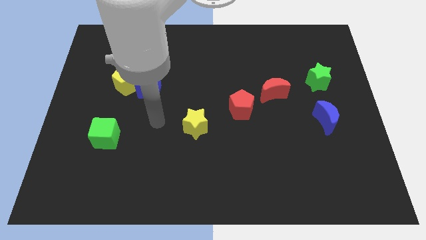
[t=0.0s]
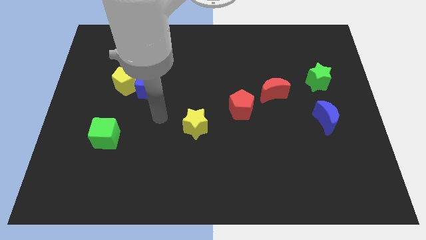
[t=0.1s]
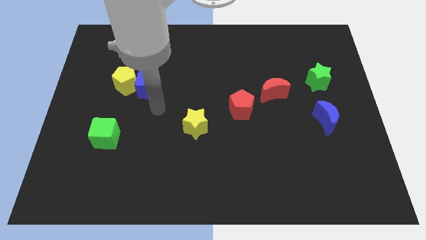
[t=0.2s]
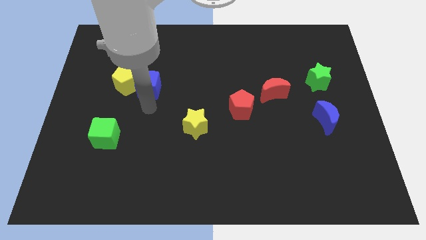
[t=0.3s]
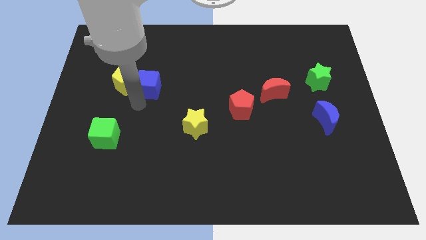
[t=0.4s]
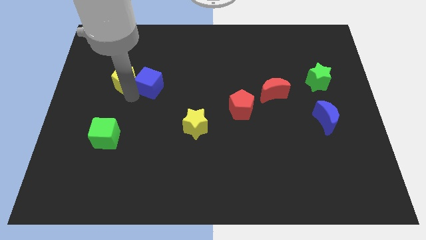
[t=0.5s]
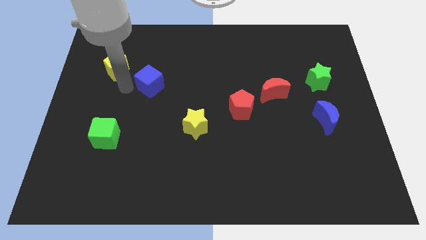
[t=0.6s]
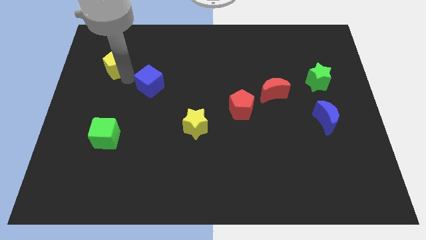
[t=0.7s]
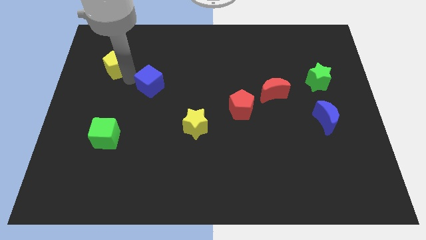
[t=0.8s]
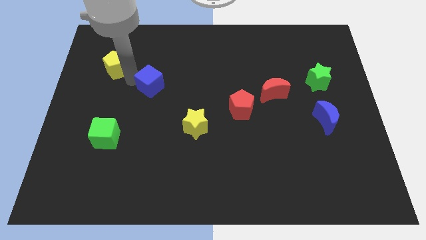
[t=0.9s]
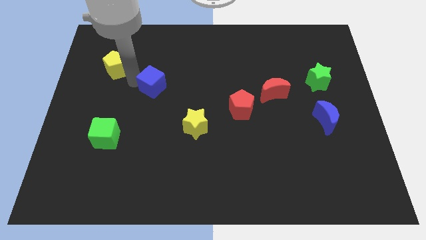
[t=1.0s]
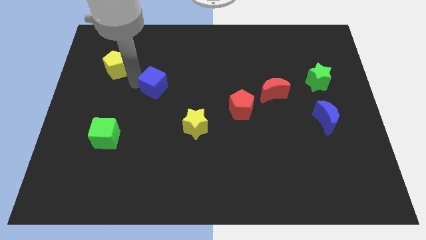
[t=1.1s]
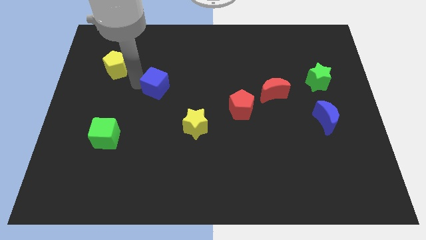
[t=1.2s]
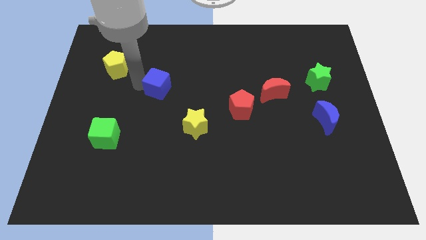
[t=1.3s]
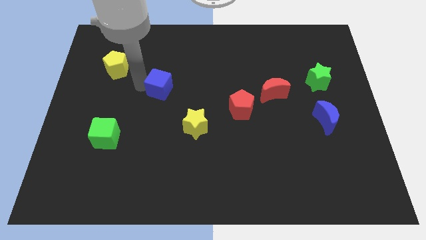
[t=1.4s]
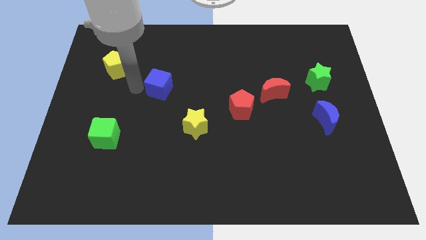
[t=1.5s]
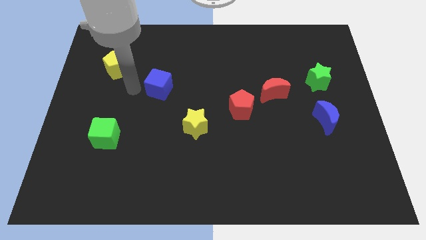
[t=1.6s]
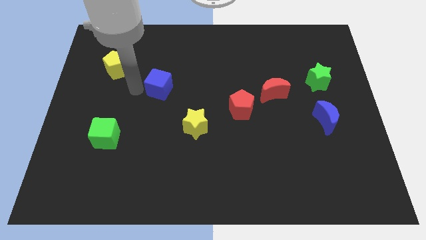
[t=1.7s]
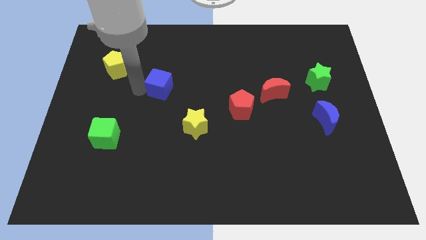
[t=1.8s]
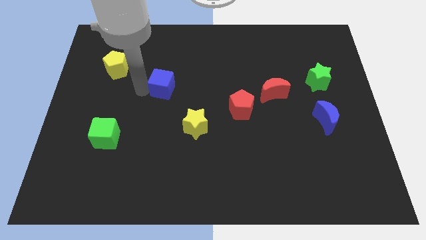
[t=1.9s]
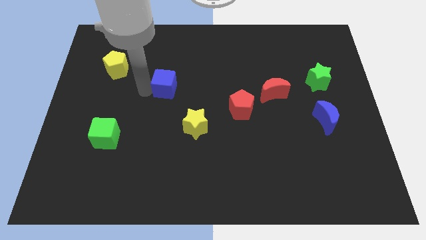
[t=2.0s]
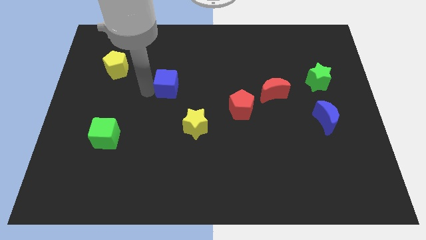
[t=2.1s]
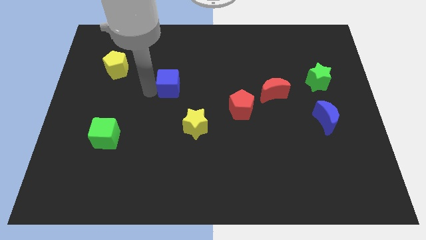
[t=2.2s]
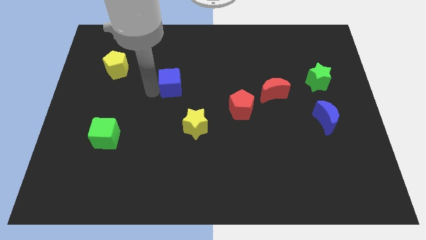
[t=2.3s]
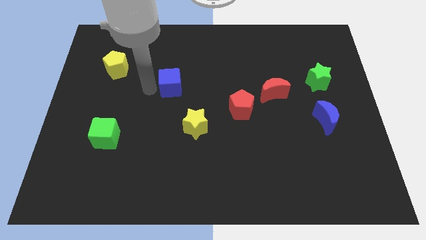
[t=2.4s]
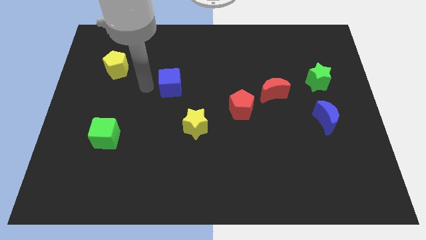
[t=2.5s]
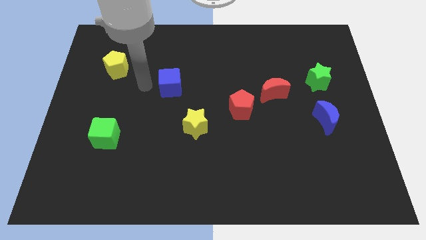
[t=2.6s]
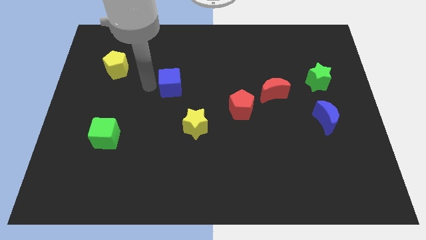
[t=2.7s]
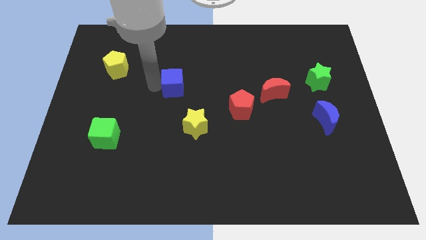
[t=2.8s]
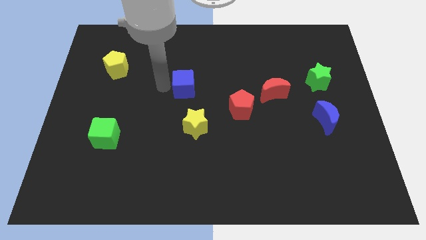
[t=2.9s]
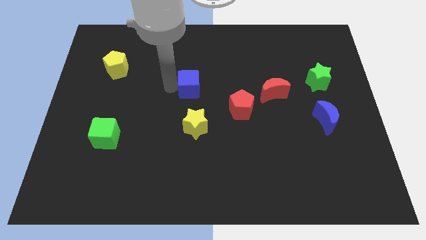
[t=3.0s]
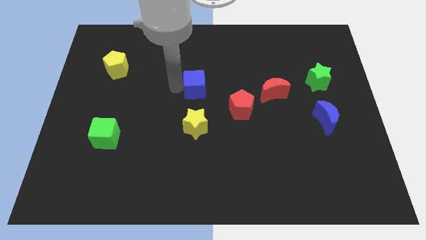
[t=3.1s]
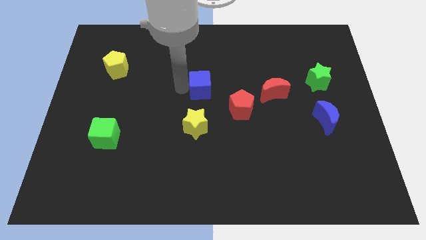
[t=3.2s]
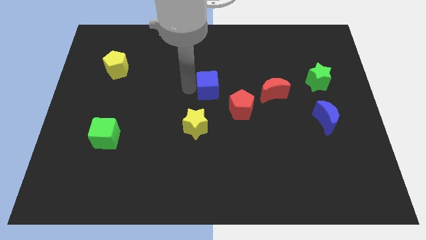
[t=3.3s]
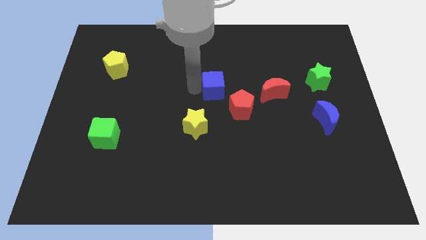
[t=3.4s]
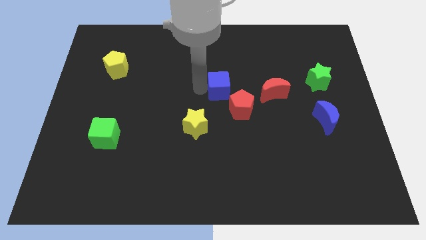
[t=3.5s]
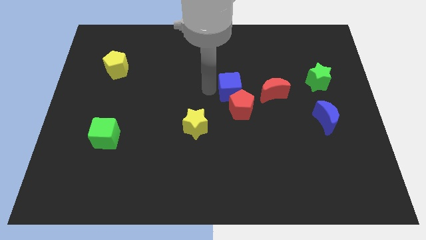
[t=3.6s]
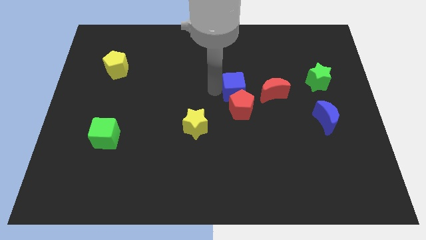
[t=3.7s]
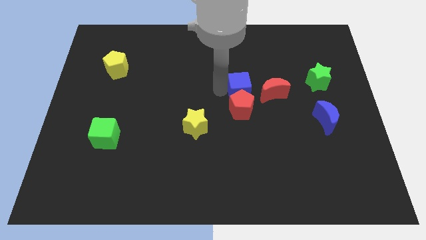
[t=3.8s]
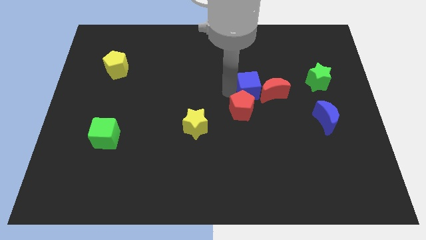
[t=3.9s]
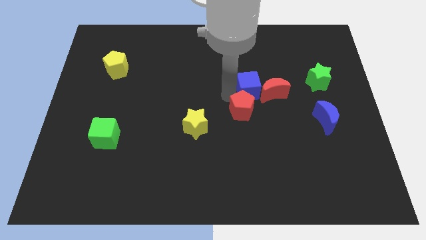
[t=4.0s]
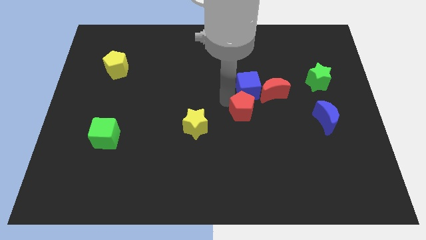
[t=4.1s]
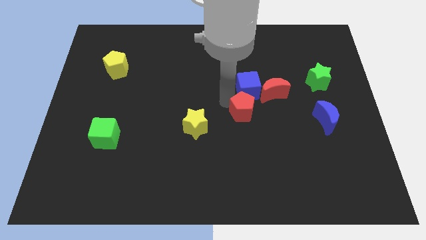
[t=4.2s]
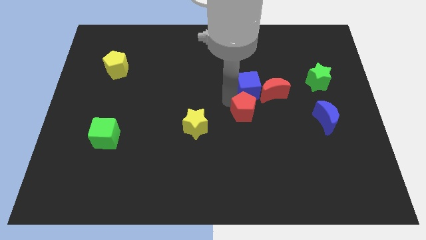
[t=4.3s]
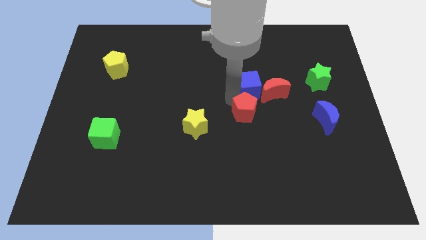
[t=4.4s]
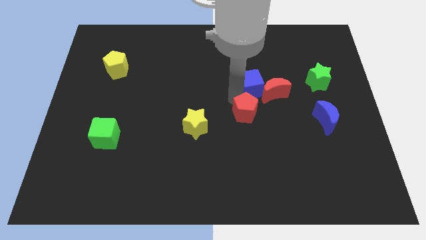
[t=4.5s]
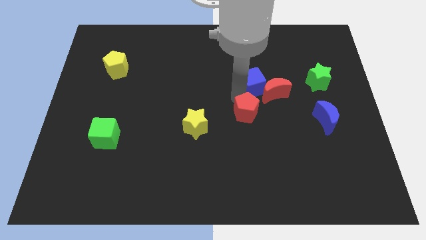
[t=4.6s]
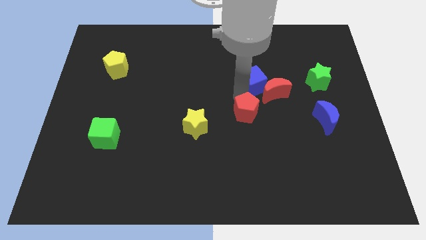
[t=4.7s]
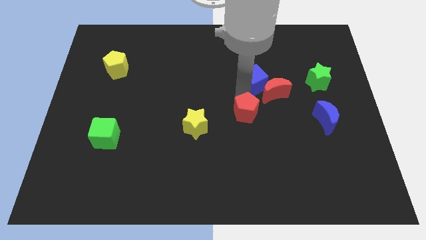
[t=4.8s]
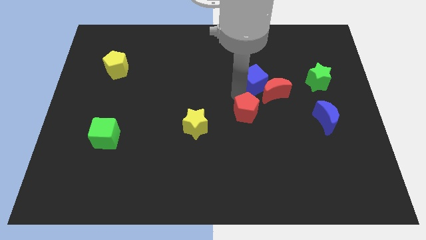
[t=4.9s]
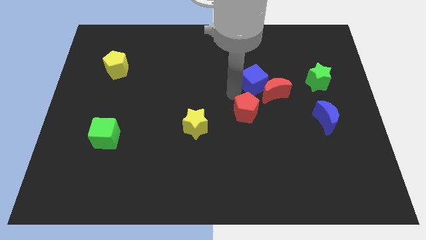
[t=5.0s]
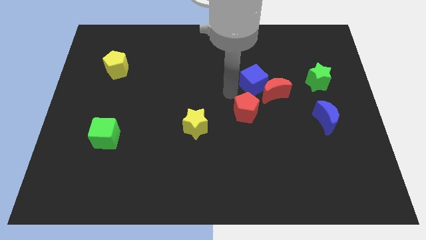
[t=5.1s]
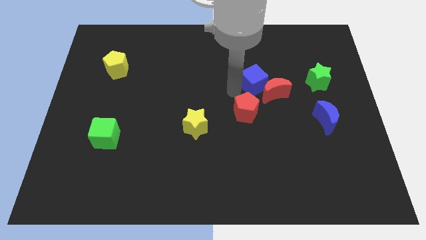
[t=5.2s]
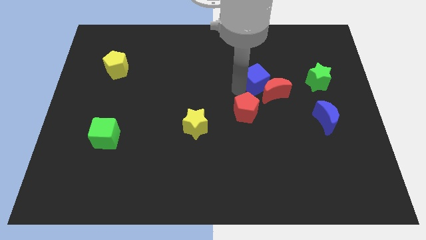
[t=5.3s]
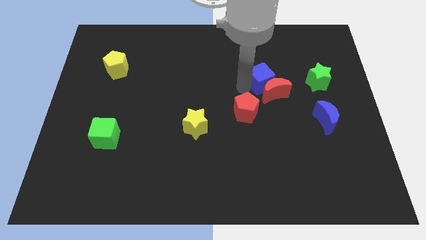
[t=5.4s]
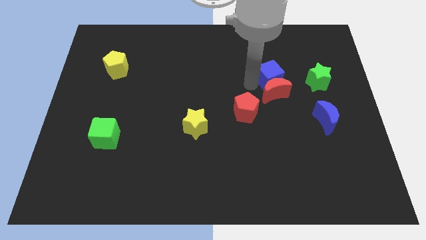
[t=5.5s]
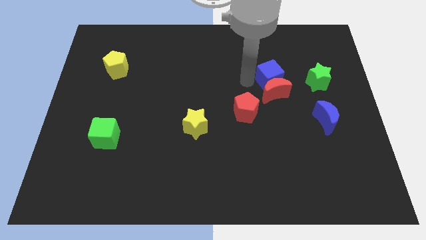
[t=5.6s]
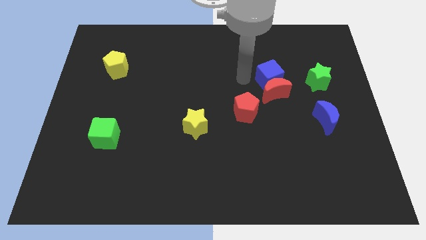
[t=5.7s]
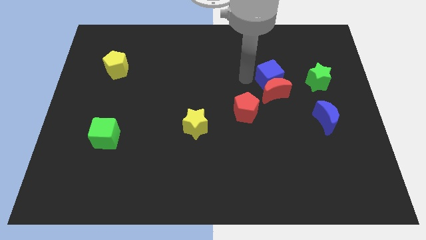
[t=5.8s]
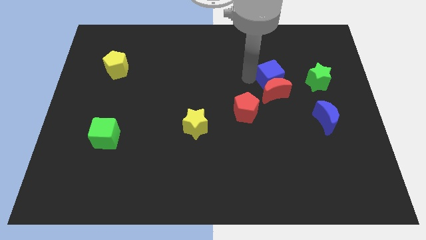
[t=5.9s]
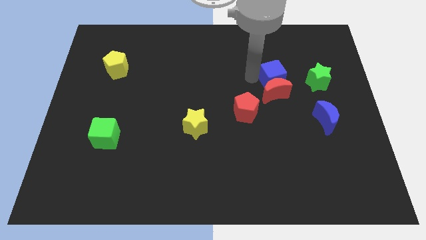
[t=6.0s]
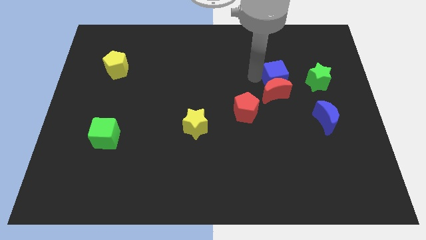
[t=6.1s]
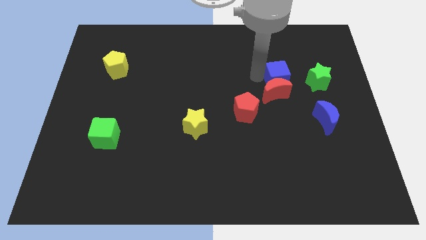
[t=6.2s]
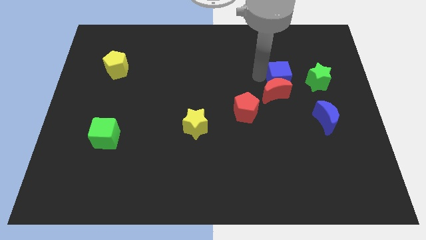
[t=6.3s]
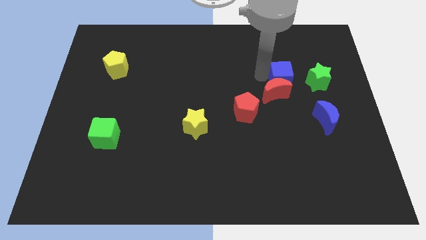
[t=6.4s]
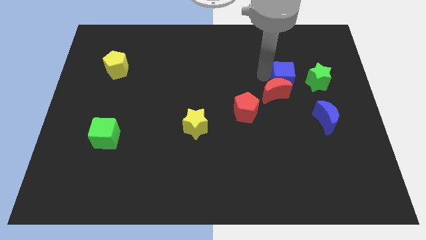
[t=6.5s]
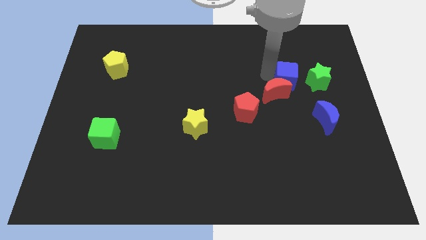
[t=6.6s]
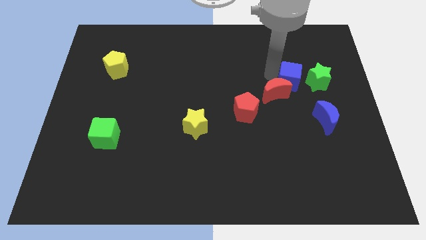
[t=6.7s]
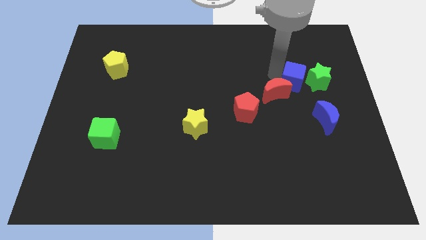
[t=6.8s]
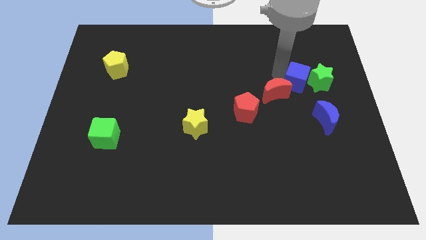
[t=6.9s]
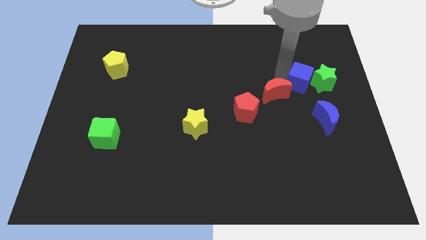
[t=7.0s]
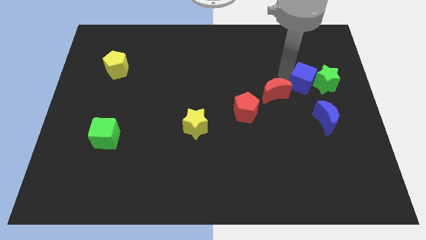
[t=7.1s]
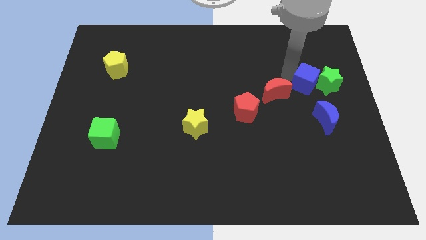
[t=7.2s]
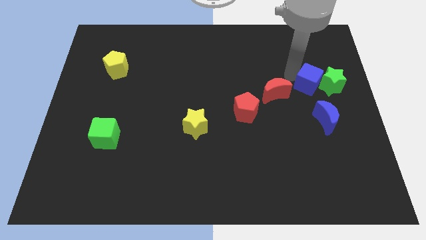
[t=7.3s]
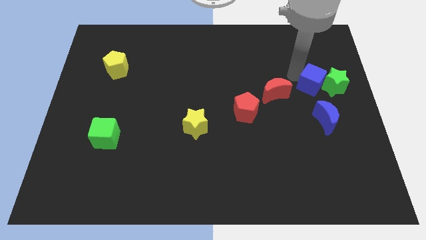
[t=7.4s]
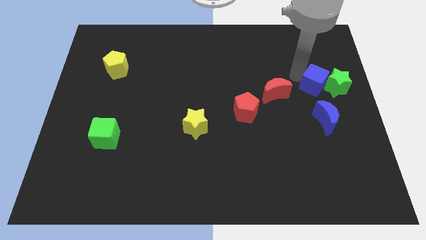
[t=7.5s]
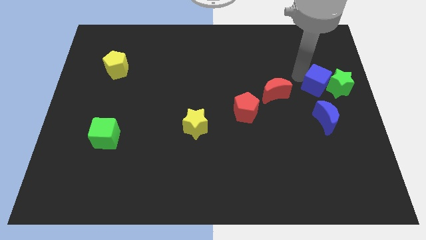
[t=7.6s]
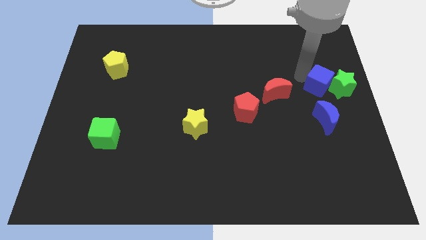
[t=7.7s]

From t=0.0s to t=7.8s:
move the blue cube to the center right
